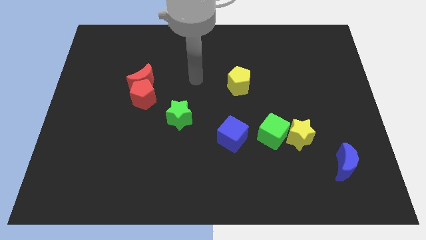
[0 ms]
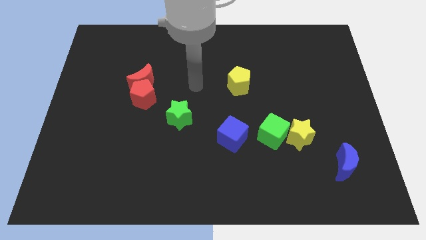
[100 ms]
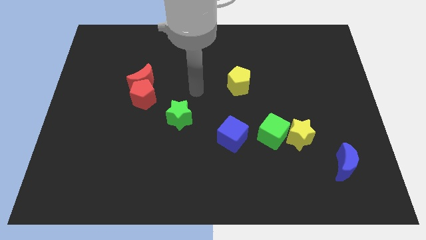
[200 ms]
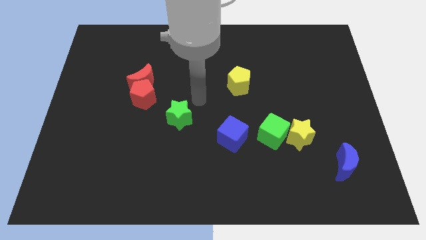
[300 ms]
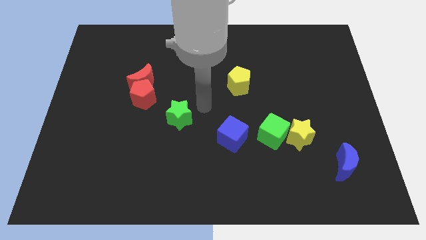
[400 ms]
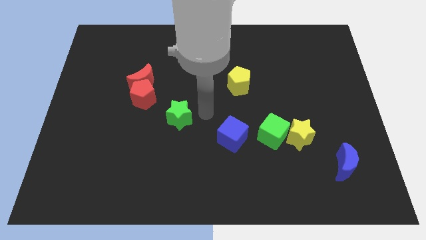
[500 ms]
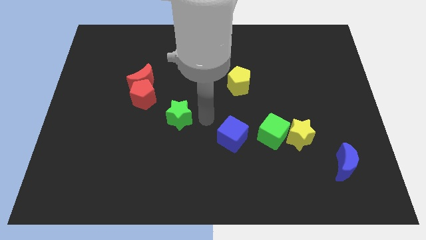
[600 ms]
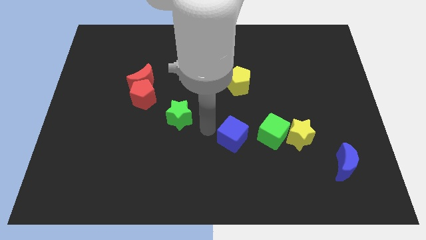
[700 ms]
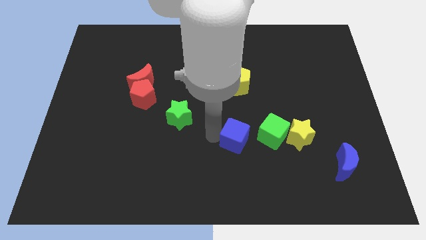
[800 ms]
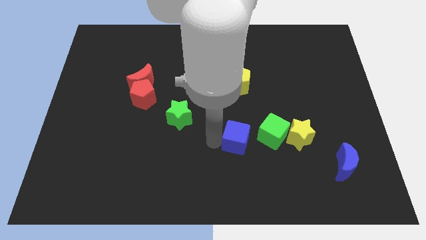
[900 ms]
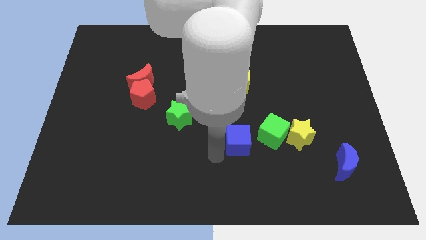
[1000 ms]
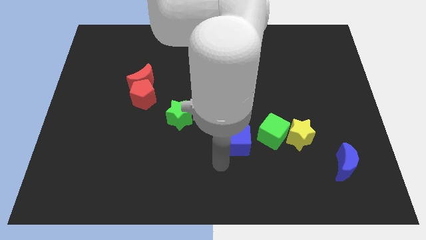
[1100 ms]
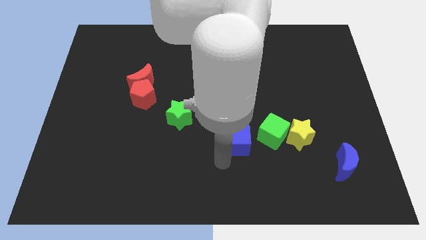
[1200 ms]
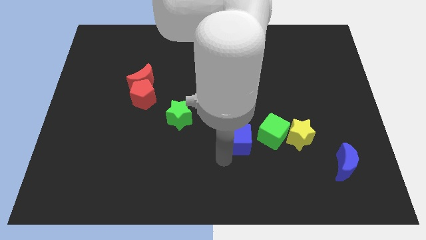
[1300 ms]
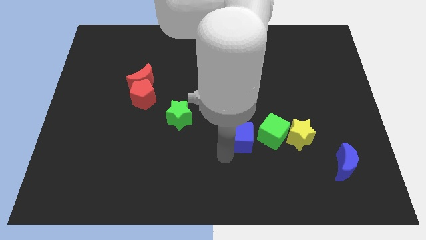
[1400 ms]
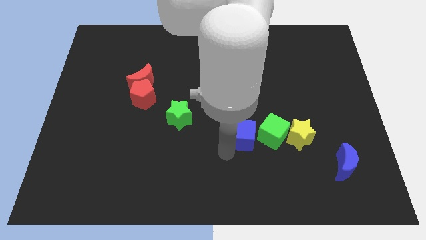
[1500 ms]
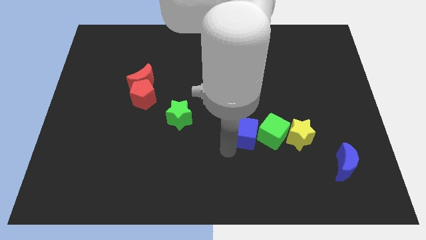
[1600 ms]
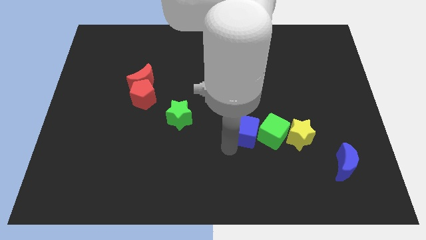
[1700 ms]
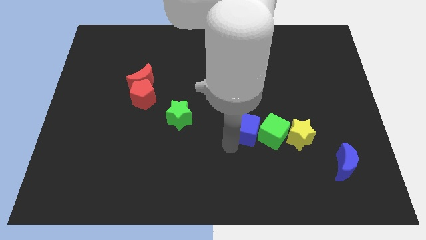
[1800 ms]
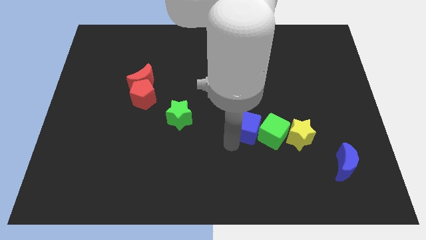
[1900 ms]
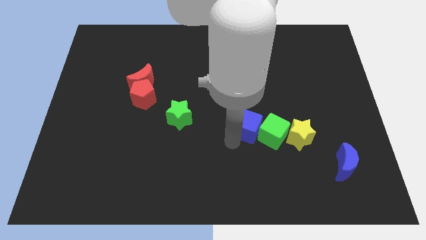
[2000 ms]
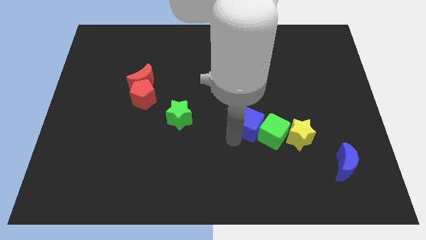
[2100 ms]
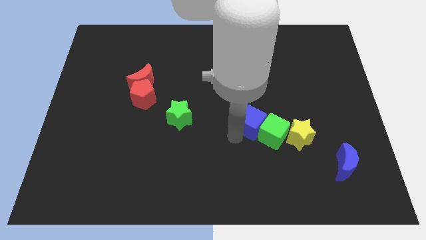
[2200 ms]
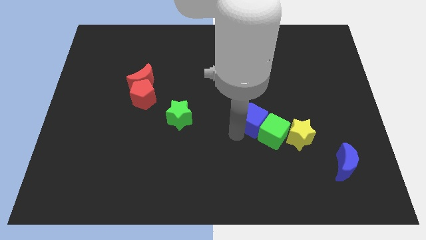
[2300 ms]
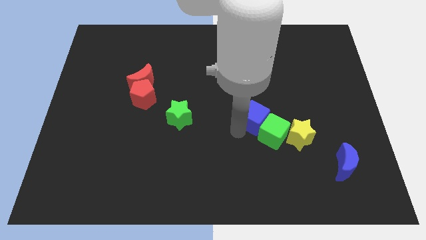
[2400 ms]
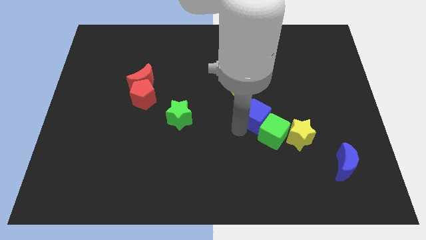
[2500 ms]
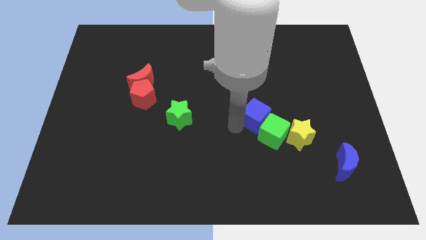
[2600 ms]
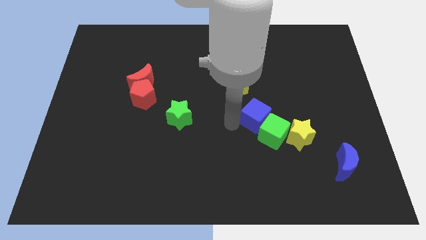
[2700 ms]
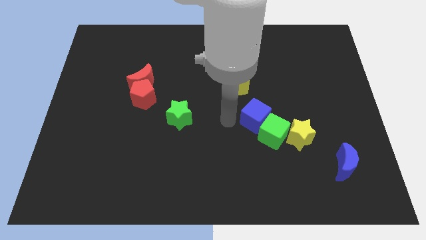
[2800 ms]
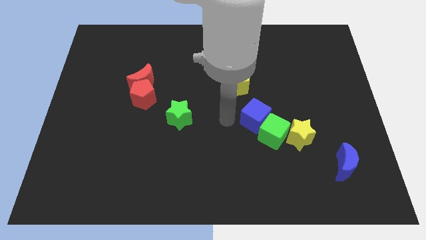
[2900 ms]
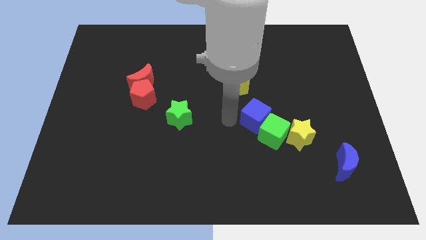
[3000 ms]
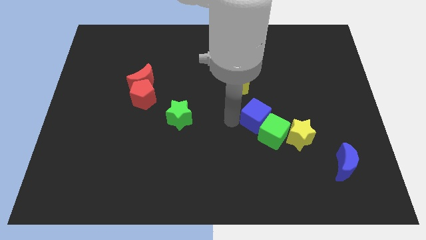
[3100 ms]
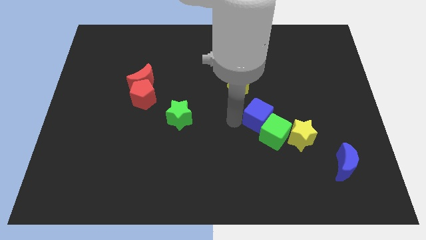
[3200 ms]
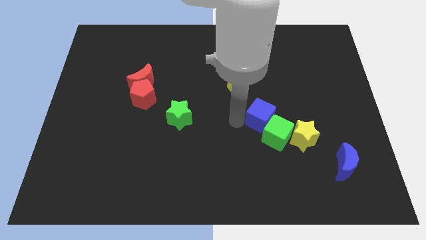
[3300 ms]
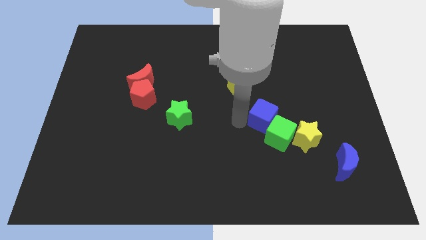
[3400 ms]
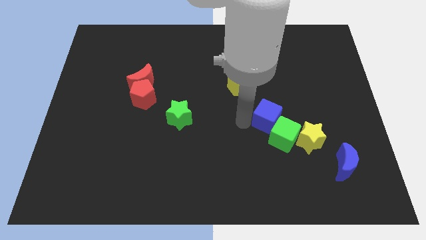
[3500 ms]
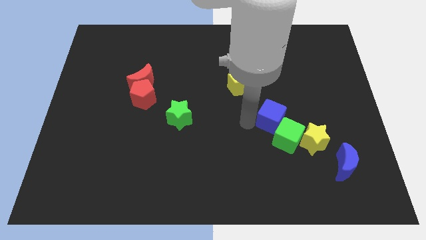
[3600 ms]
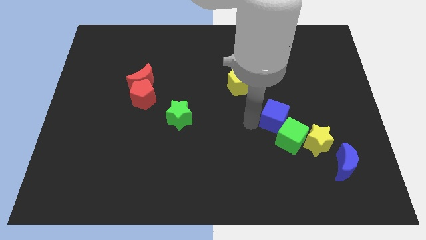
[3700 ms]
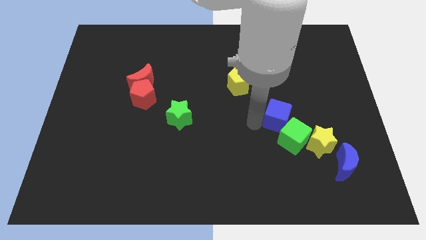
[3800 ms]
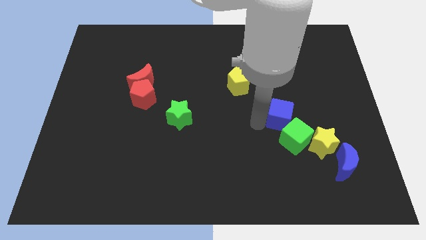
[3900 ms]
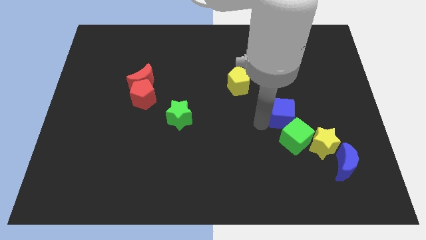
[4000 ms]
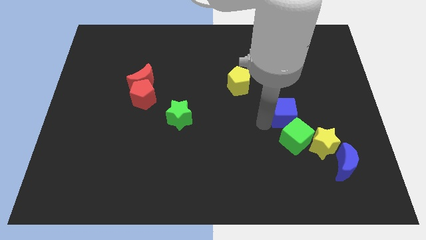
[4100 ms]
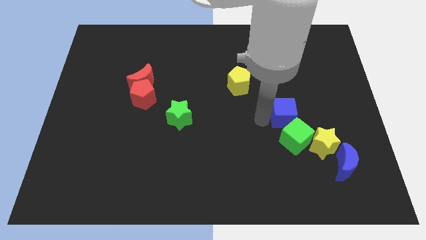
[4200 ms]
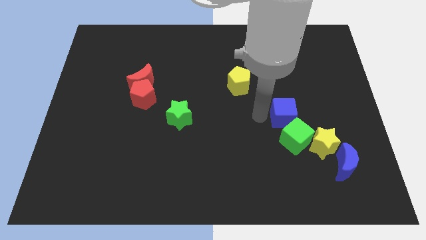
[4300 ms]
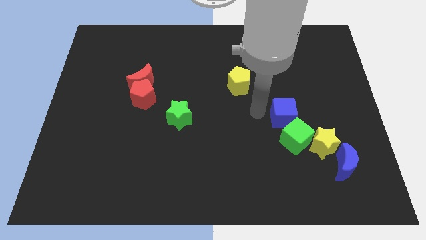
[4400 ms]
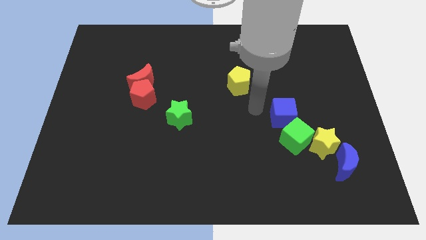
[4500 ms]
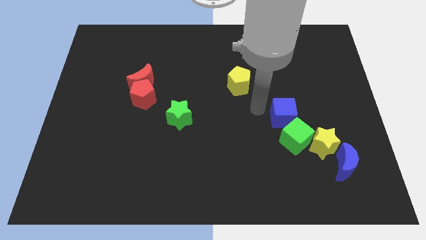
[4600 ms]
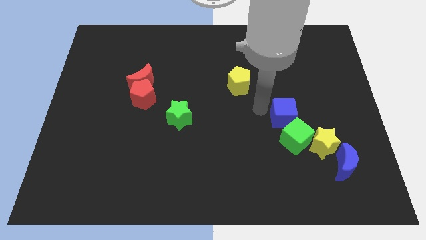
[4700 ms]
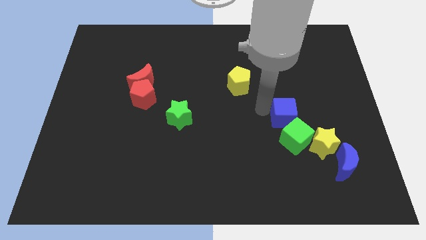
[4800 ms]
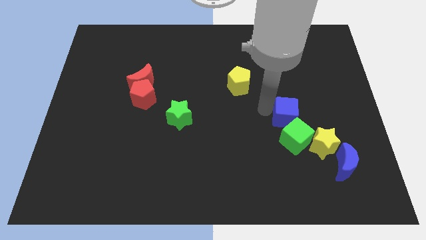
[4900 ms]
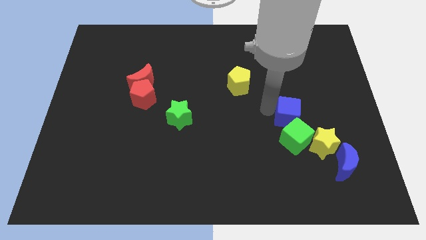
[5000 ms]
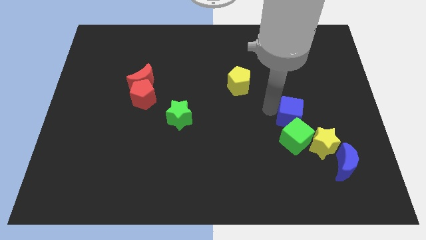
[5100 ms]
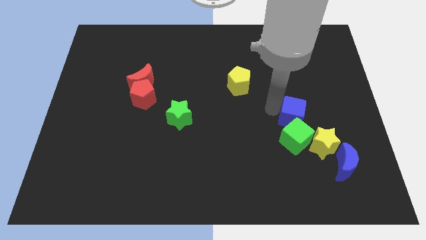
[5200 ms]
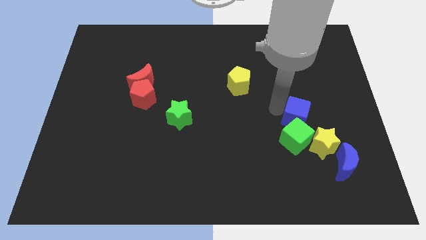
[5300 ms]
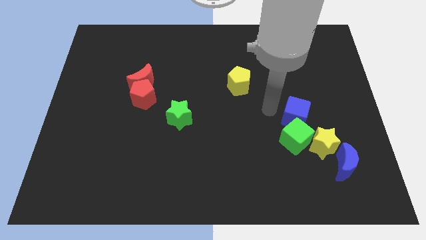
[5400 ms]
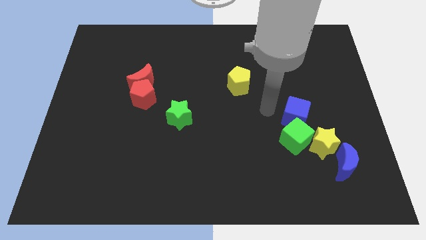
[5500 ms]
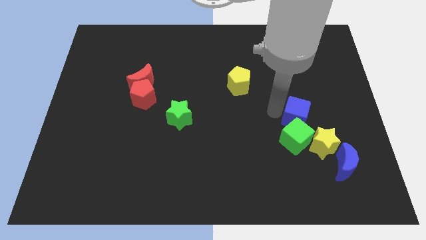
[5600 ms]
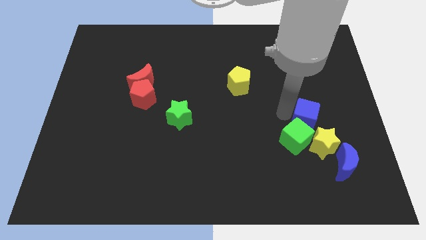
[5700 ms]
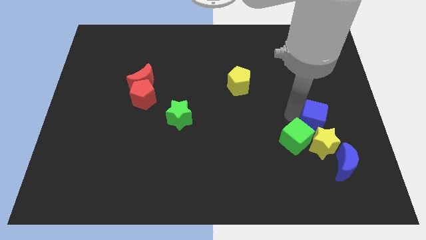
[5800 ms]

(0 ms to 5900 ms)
move the blue cube to the top of the blue moon

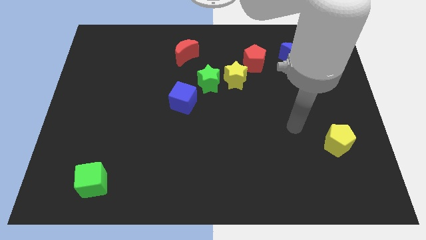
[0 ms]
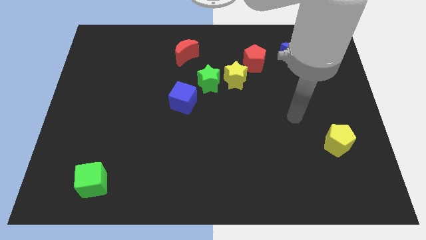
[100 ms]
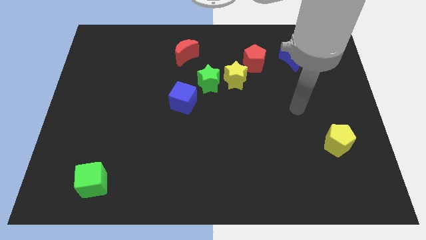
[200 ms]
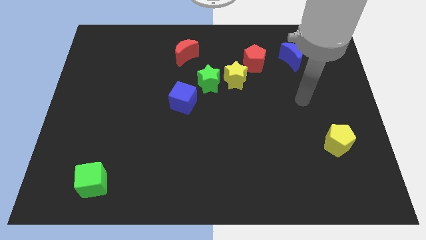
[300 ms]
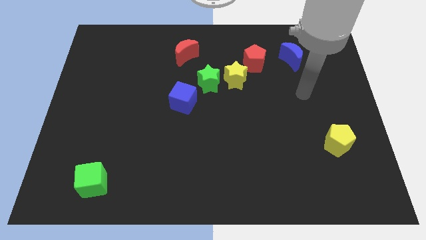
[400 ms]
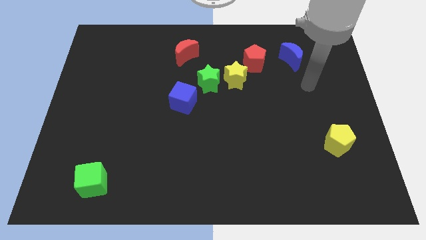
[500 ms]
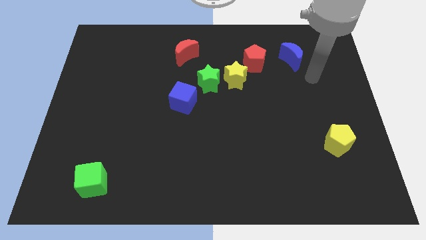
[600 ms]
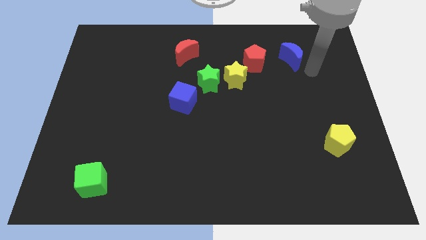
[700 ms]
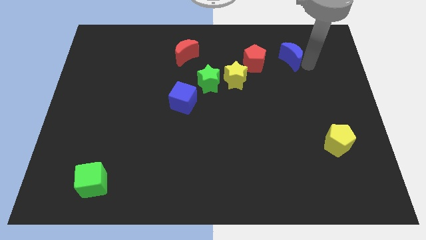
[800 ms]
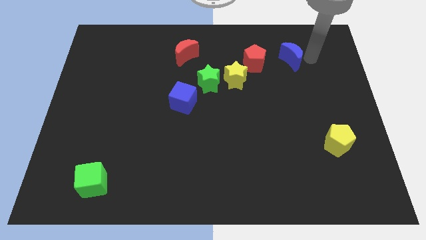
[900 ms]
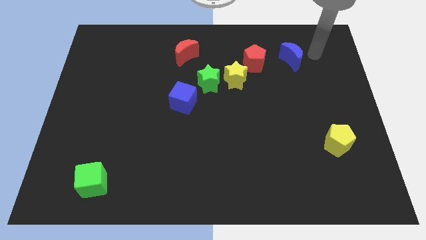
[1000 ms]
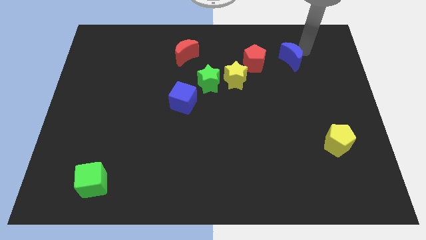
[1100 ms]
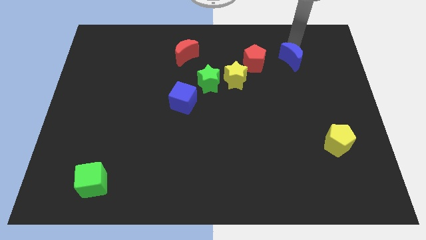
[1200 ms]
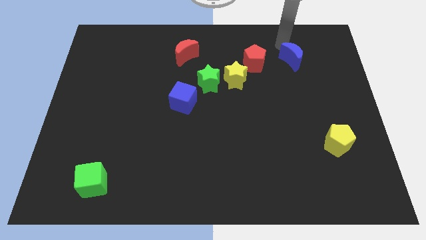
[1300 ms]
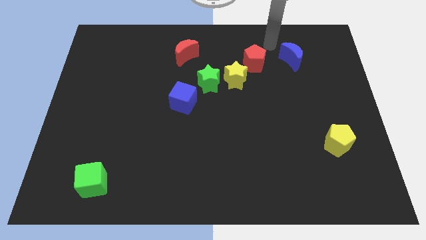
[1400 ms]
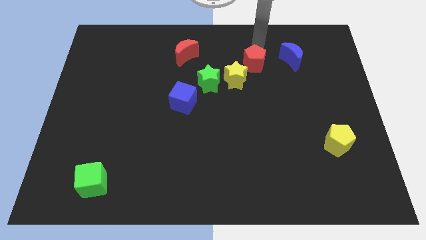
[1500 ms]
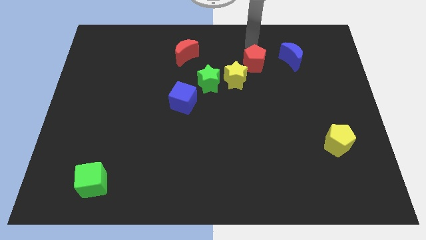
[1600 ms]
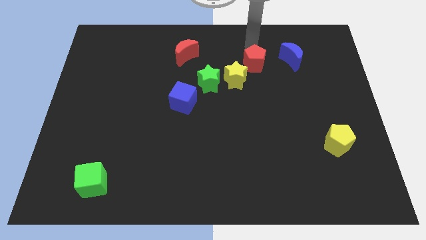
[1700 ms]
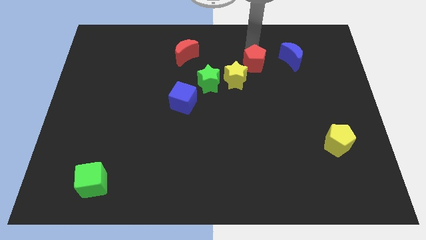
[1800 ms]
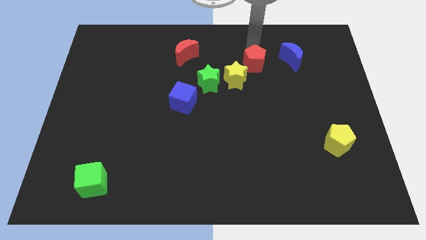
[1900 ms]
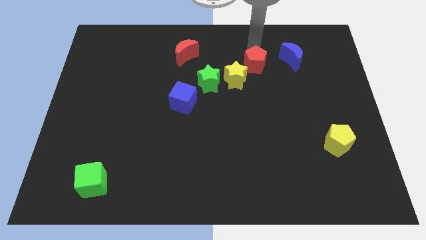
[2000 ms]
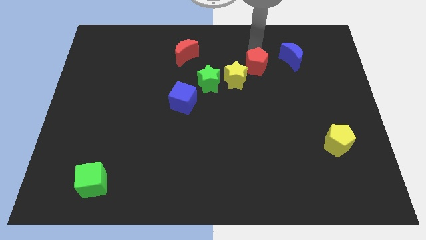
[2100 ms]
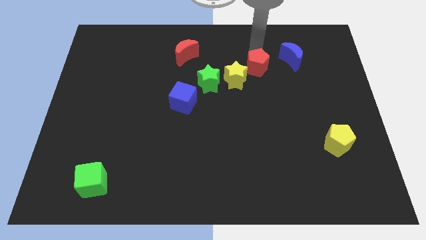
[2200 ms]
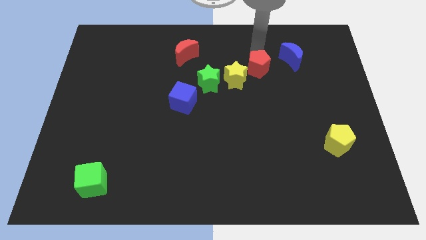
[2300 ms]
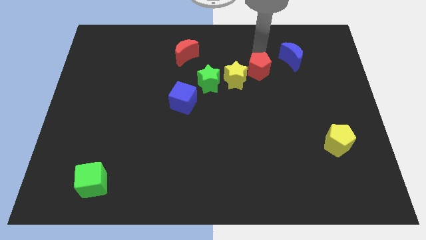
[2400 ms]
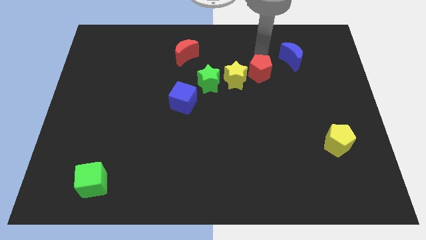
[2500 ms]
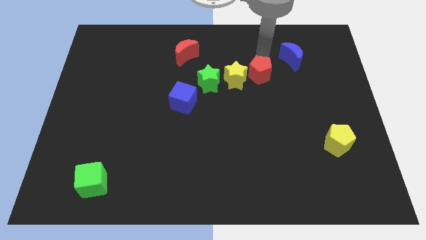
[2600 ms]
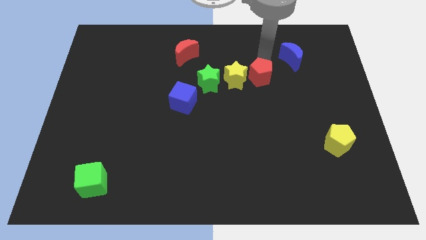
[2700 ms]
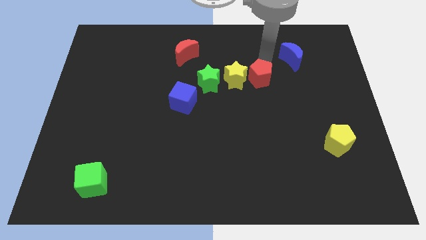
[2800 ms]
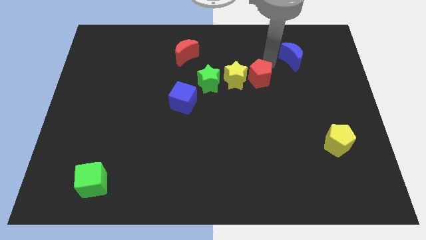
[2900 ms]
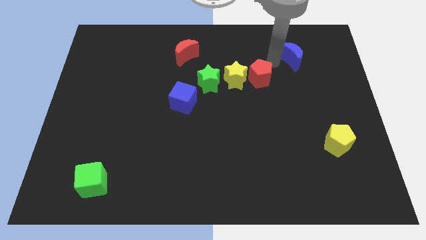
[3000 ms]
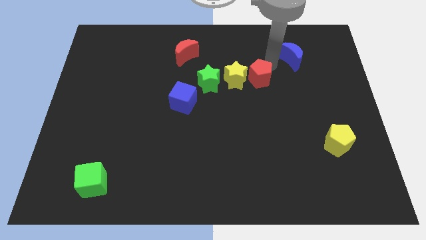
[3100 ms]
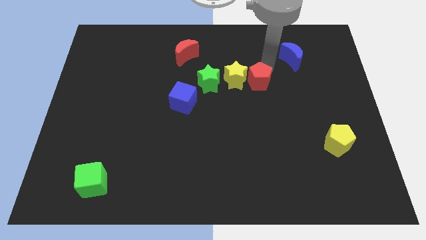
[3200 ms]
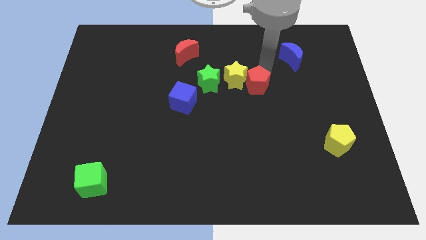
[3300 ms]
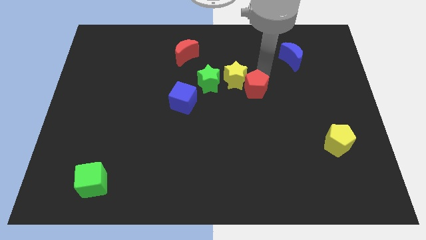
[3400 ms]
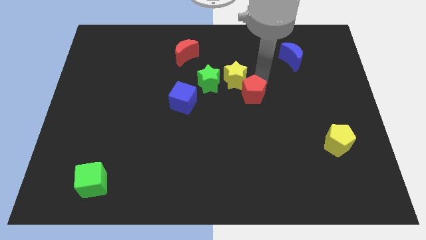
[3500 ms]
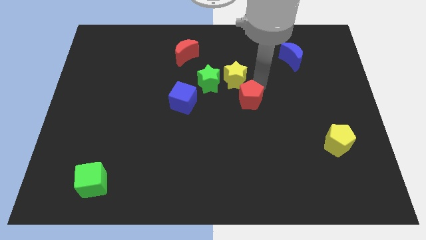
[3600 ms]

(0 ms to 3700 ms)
slide the red pentagon to the bottom right of the green star
